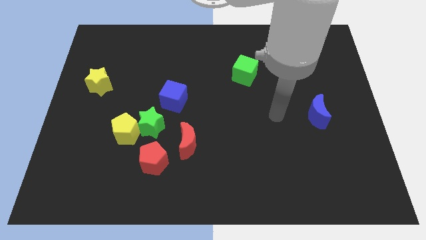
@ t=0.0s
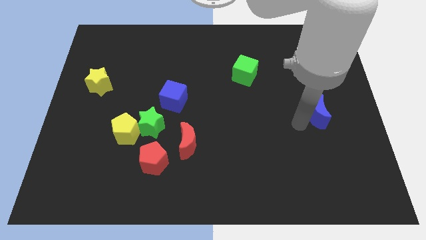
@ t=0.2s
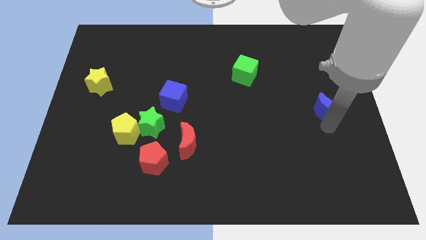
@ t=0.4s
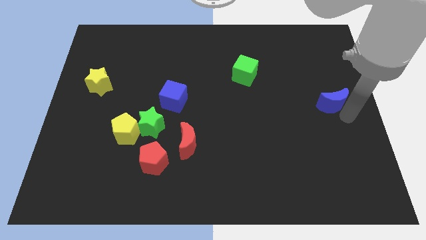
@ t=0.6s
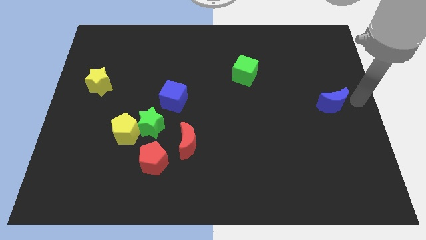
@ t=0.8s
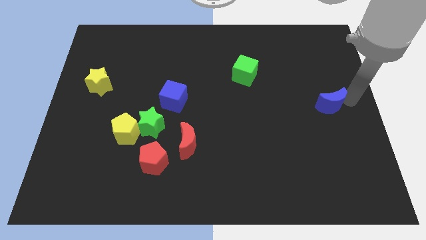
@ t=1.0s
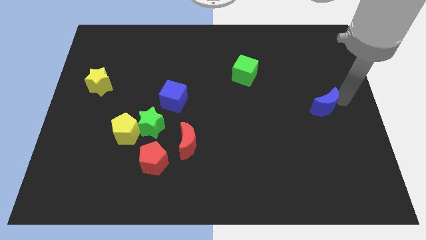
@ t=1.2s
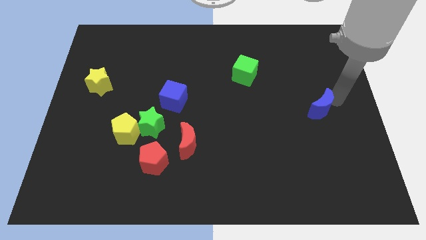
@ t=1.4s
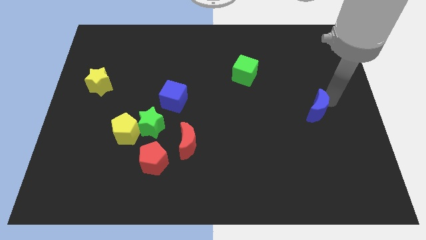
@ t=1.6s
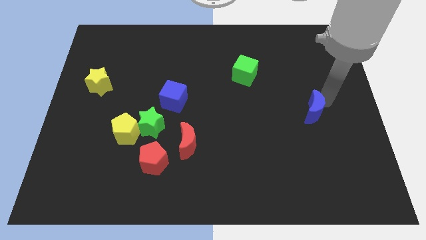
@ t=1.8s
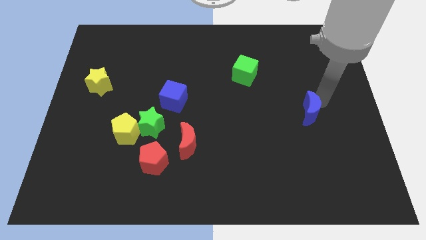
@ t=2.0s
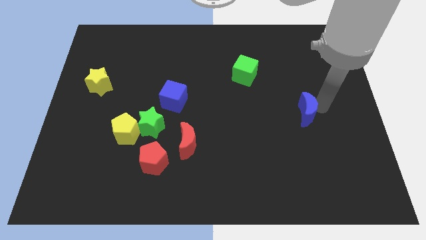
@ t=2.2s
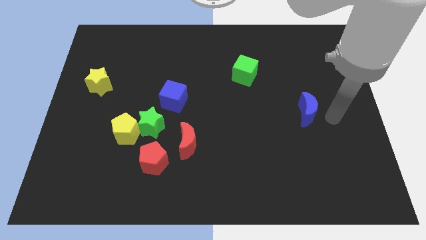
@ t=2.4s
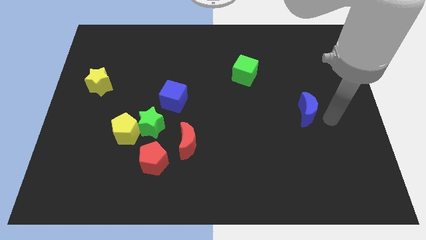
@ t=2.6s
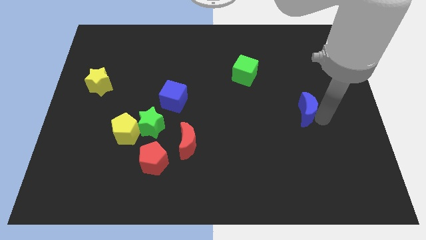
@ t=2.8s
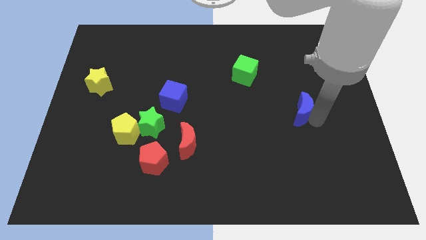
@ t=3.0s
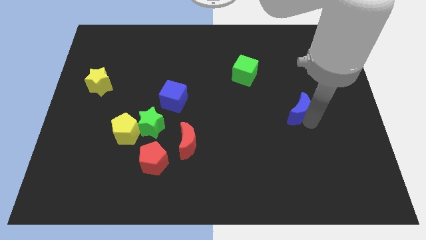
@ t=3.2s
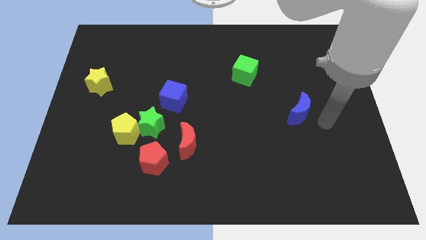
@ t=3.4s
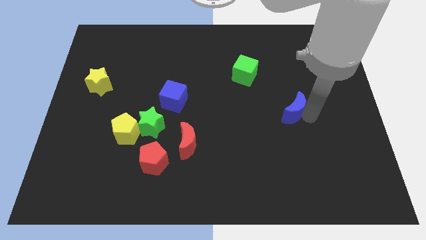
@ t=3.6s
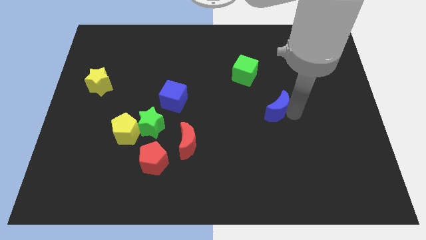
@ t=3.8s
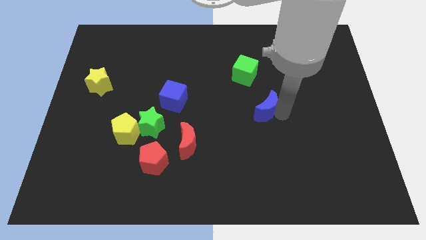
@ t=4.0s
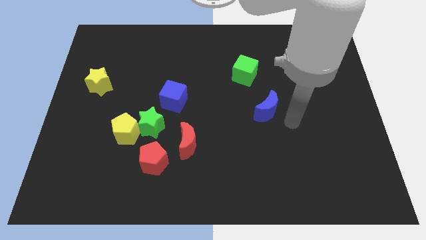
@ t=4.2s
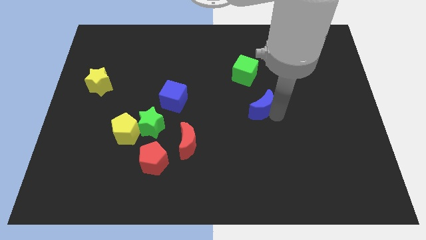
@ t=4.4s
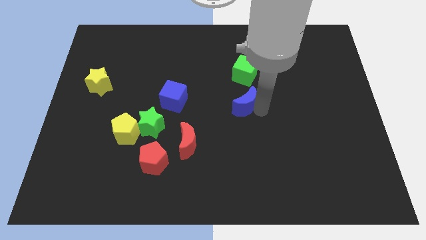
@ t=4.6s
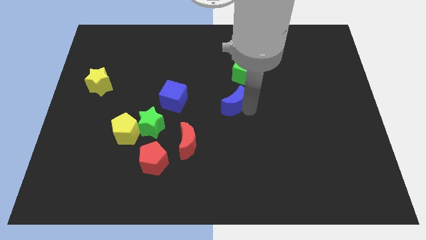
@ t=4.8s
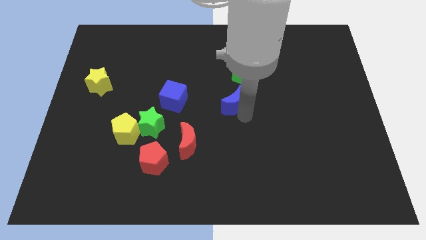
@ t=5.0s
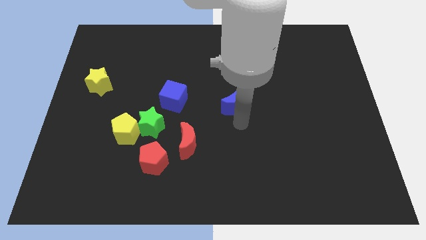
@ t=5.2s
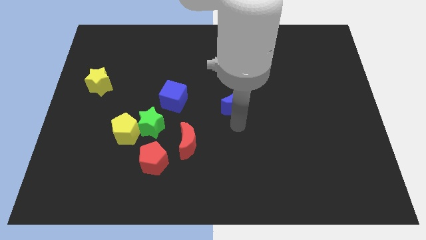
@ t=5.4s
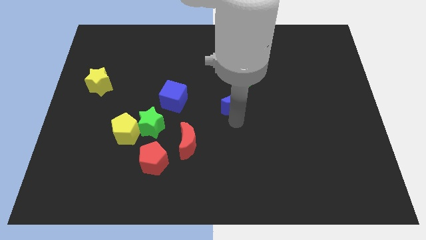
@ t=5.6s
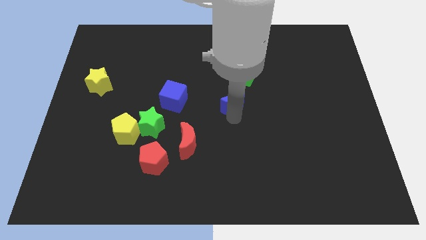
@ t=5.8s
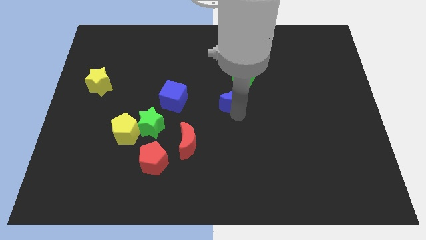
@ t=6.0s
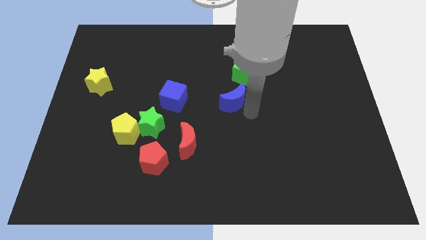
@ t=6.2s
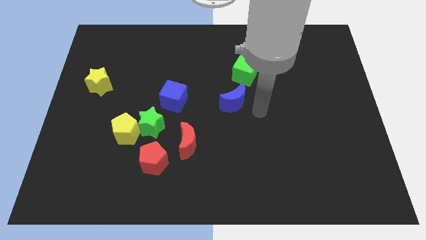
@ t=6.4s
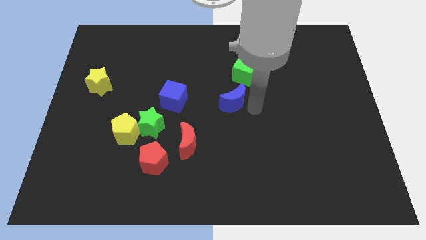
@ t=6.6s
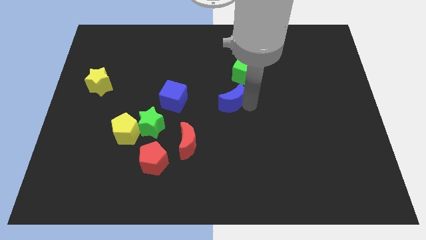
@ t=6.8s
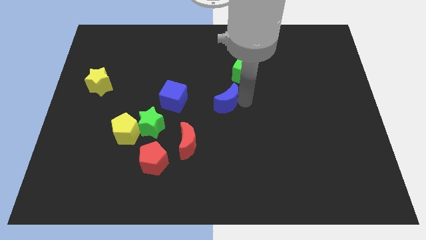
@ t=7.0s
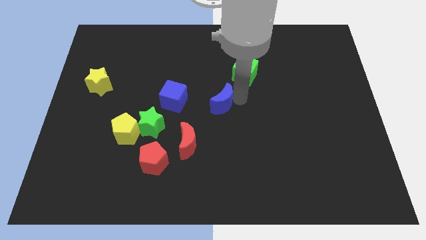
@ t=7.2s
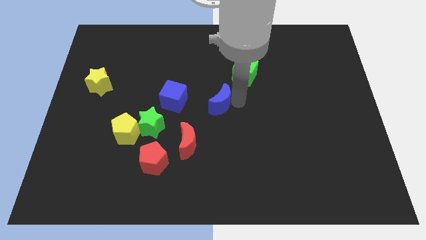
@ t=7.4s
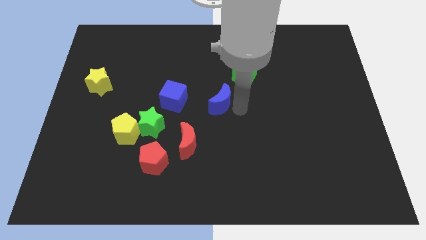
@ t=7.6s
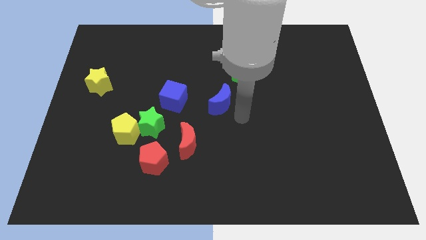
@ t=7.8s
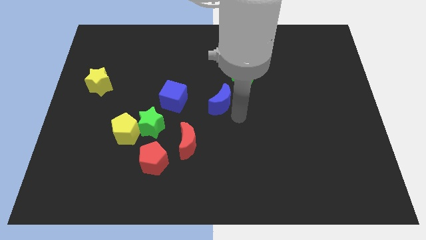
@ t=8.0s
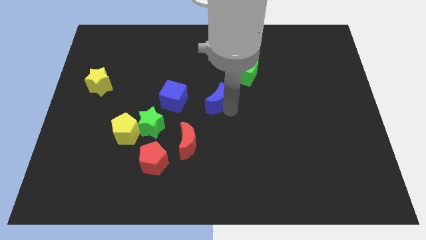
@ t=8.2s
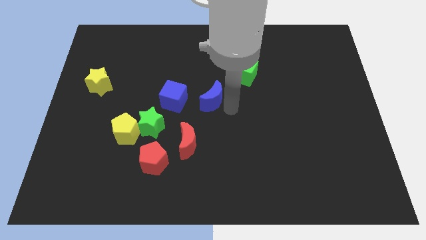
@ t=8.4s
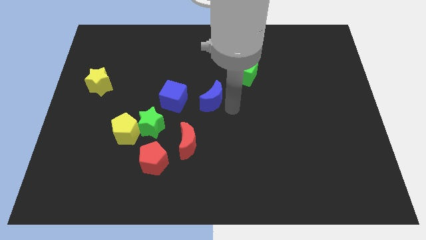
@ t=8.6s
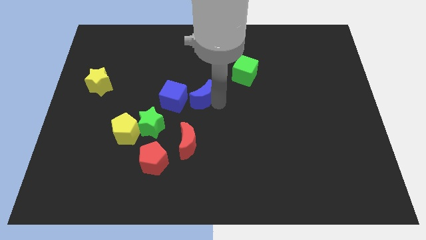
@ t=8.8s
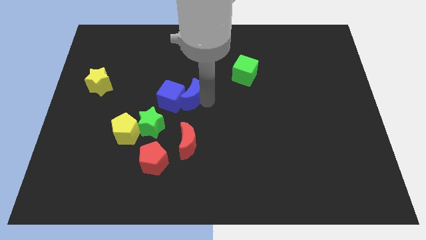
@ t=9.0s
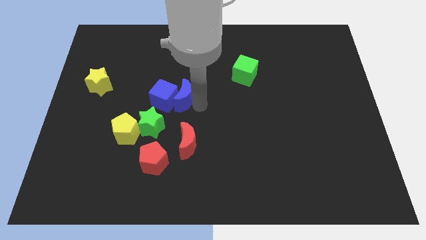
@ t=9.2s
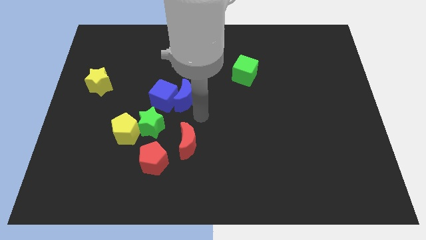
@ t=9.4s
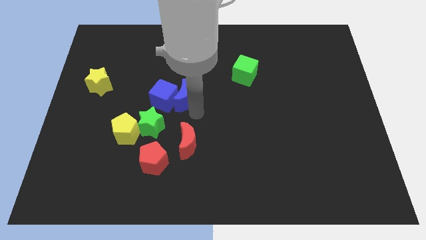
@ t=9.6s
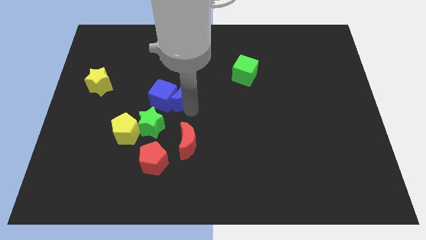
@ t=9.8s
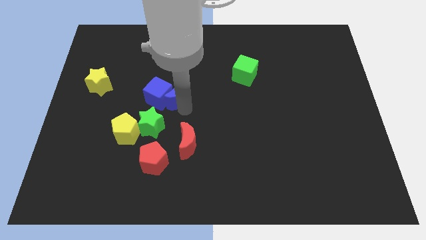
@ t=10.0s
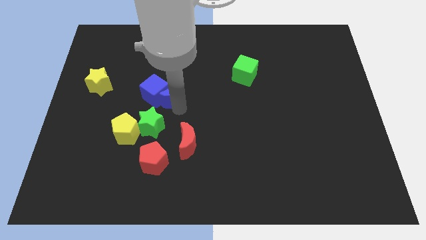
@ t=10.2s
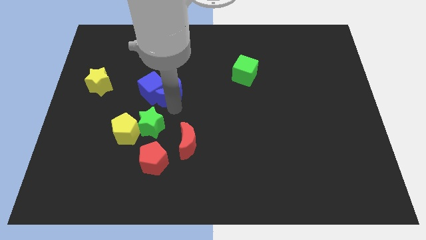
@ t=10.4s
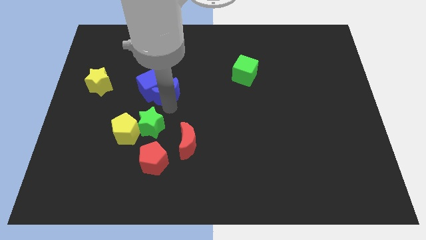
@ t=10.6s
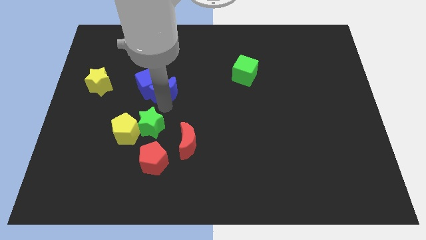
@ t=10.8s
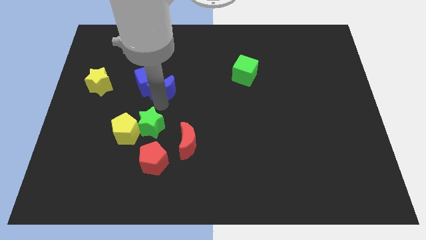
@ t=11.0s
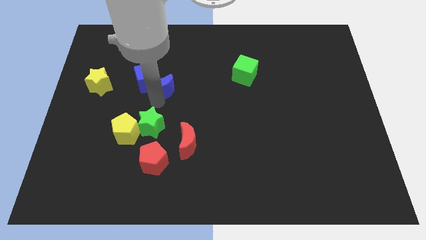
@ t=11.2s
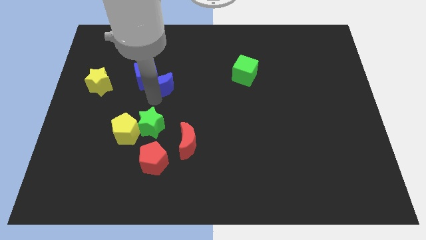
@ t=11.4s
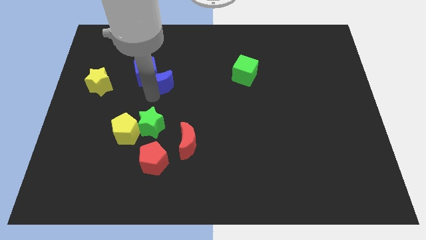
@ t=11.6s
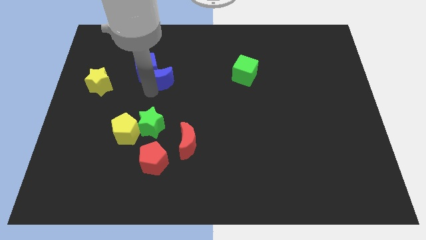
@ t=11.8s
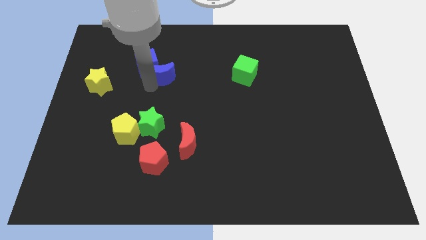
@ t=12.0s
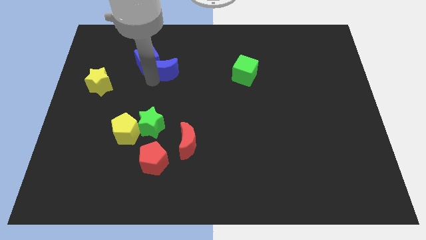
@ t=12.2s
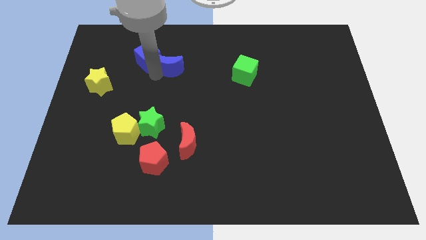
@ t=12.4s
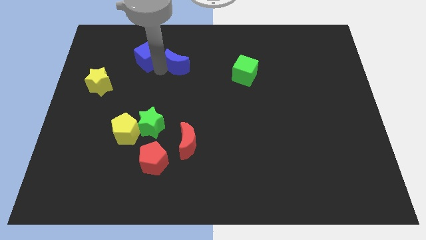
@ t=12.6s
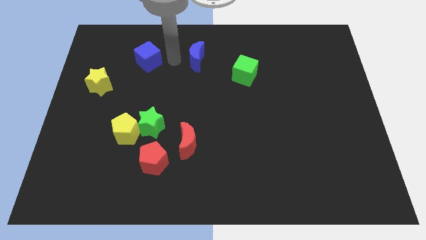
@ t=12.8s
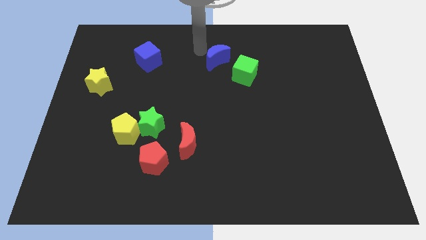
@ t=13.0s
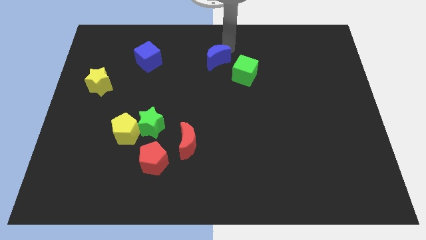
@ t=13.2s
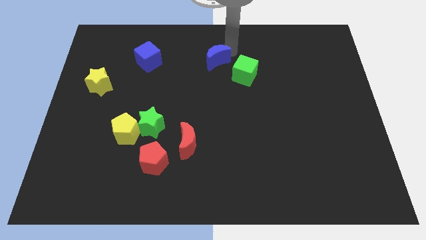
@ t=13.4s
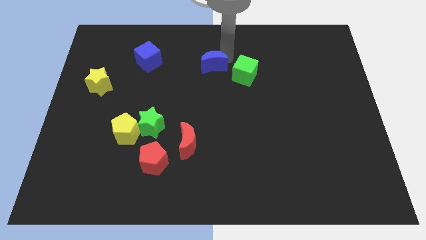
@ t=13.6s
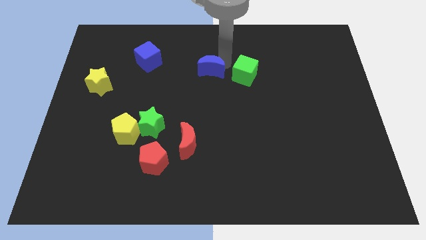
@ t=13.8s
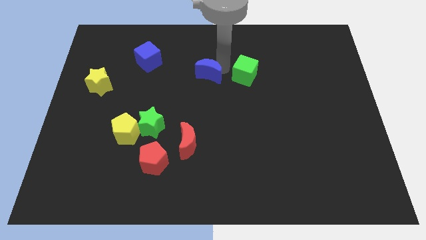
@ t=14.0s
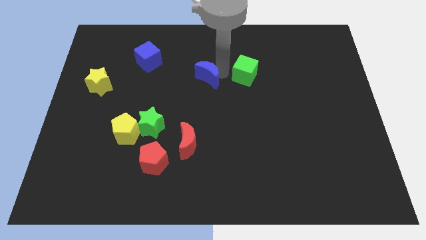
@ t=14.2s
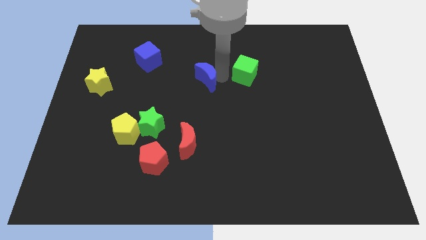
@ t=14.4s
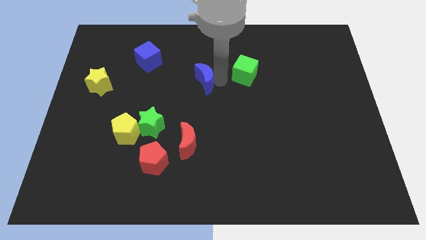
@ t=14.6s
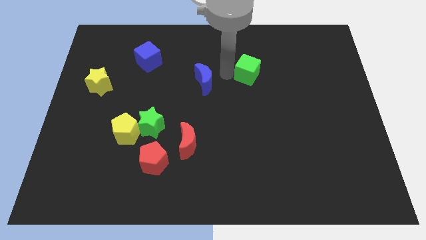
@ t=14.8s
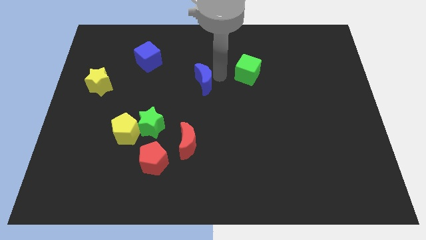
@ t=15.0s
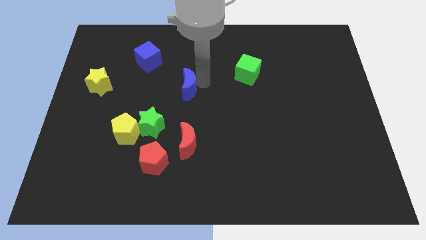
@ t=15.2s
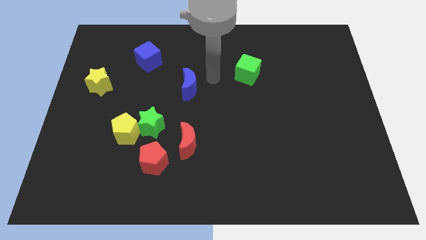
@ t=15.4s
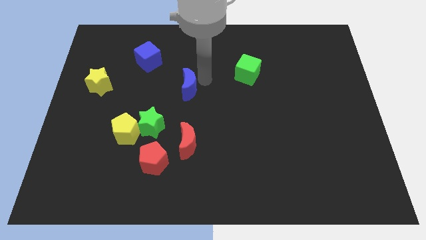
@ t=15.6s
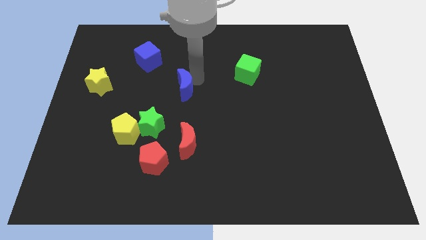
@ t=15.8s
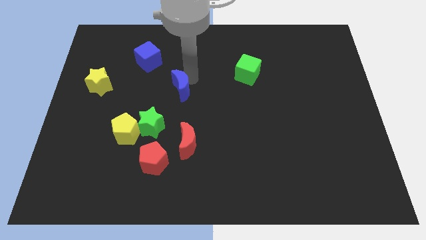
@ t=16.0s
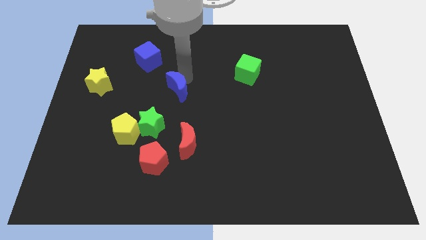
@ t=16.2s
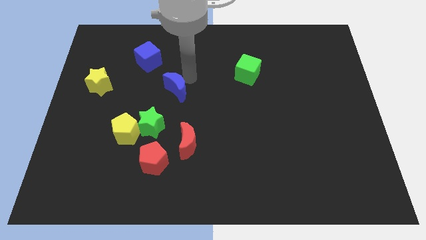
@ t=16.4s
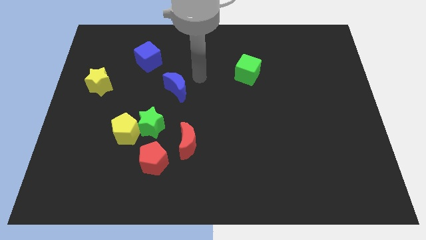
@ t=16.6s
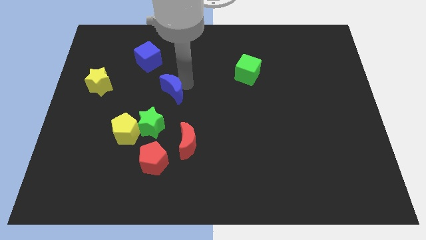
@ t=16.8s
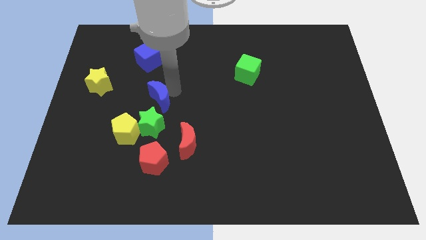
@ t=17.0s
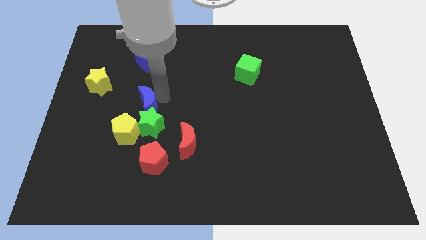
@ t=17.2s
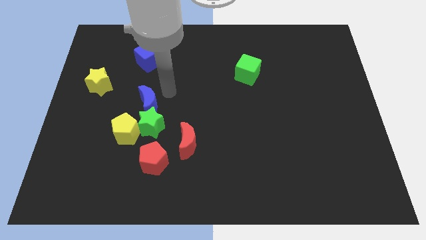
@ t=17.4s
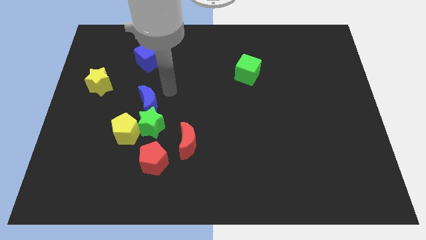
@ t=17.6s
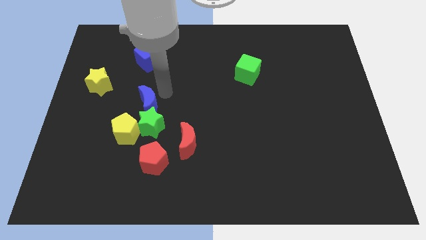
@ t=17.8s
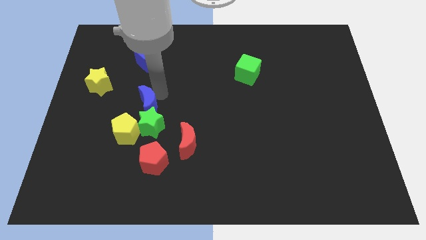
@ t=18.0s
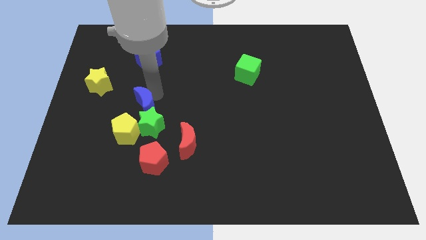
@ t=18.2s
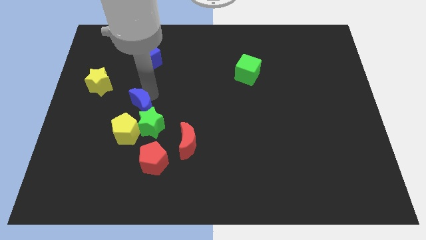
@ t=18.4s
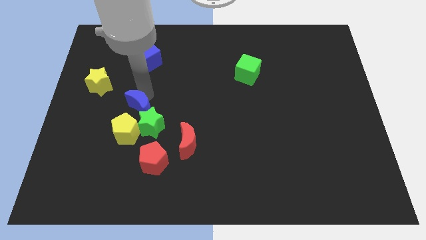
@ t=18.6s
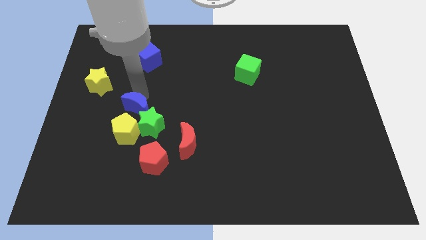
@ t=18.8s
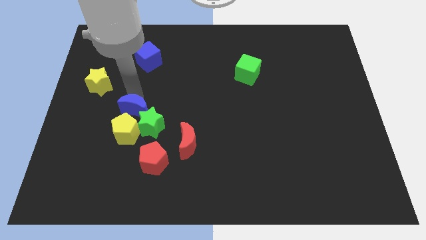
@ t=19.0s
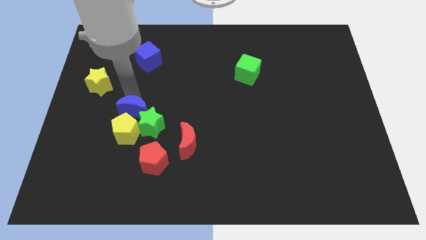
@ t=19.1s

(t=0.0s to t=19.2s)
push the blue moon towards the yellow pentagon
